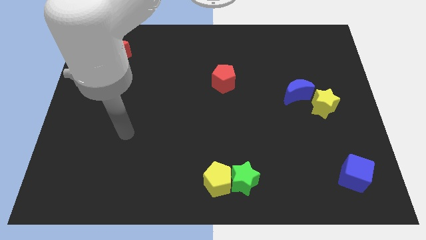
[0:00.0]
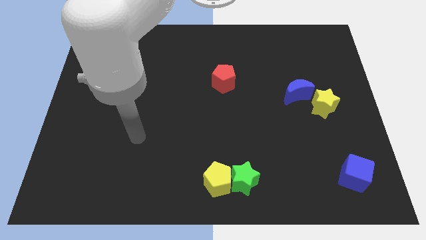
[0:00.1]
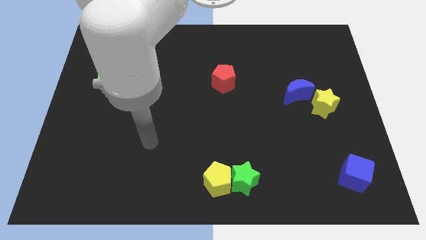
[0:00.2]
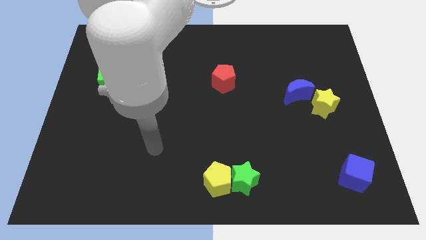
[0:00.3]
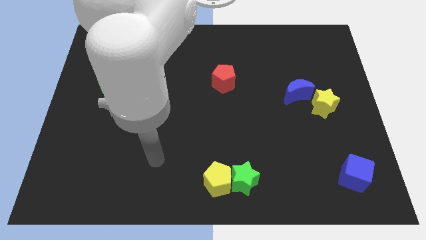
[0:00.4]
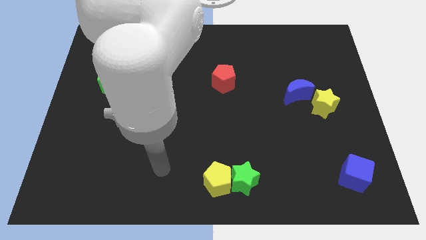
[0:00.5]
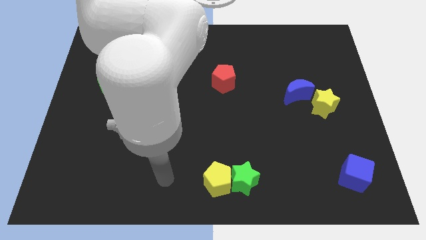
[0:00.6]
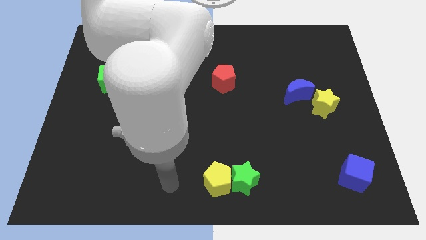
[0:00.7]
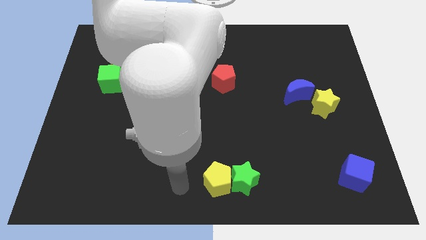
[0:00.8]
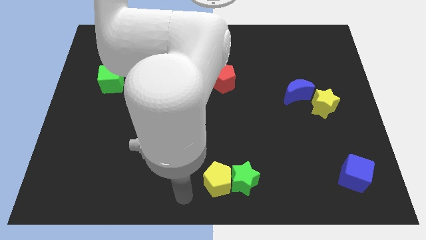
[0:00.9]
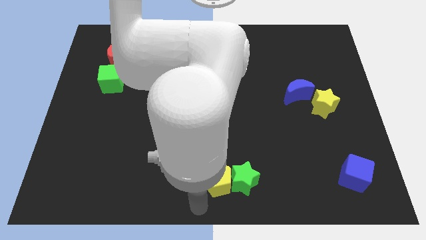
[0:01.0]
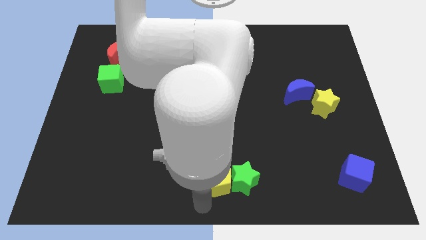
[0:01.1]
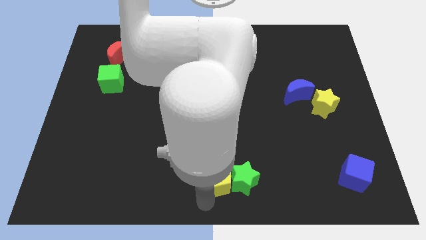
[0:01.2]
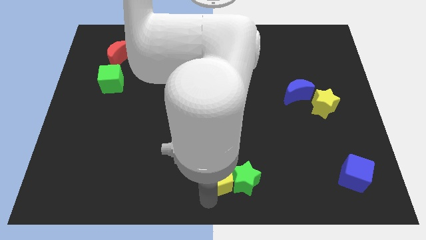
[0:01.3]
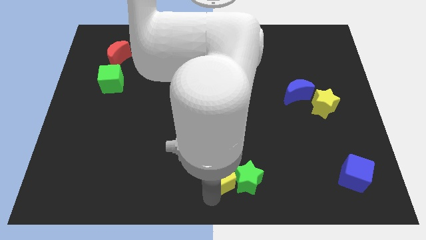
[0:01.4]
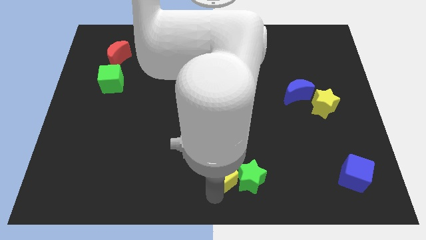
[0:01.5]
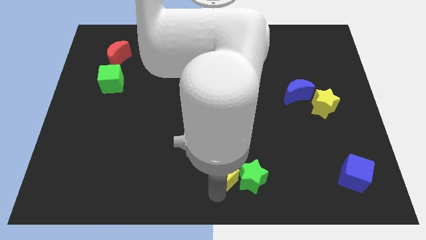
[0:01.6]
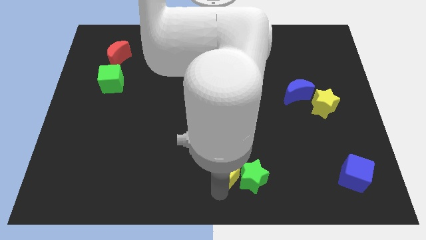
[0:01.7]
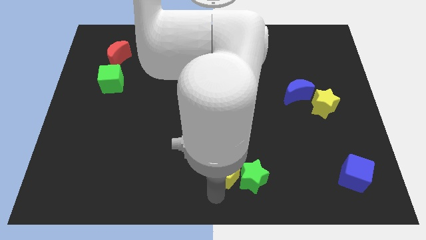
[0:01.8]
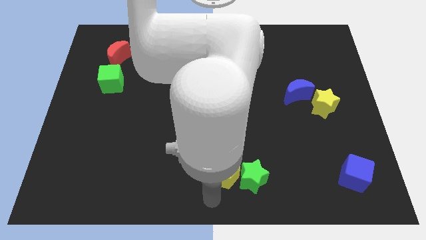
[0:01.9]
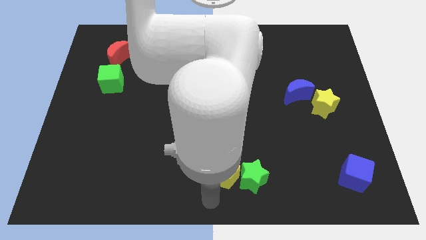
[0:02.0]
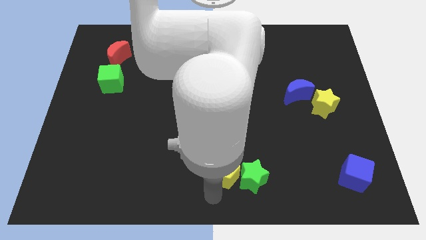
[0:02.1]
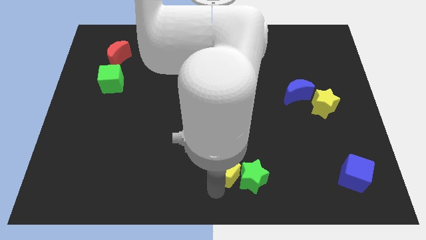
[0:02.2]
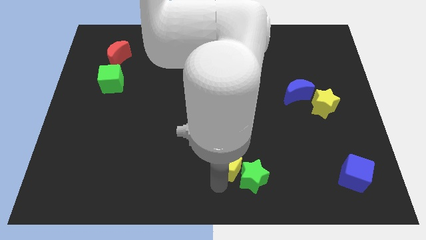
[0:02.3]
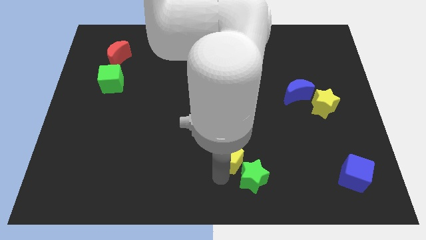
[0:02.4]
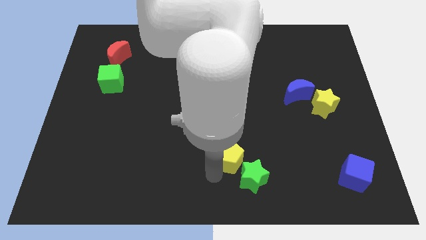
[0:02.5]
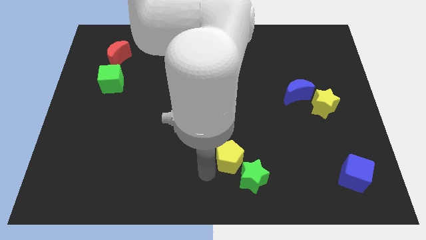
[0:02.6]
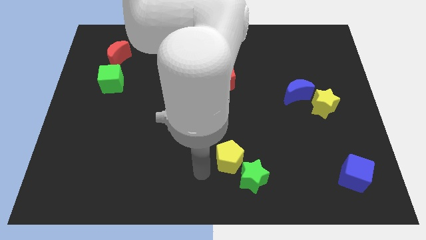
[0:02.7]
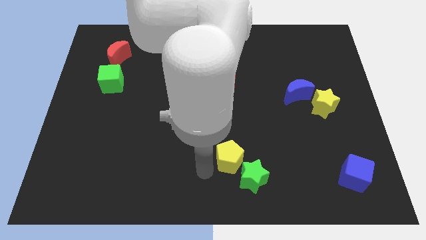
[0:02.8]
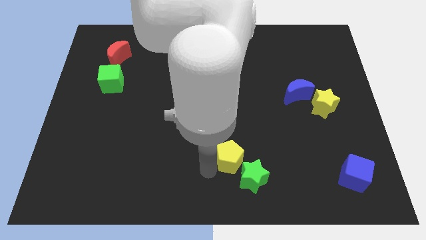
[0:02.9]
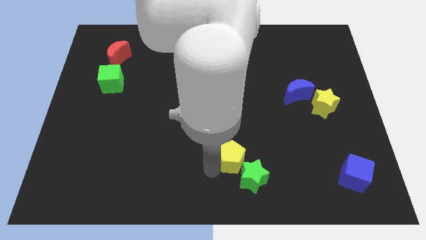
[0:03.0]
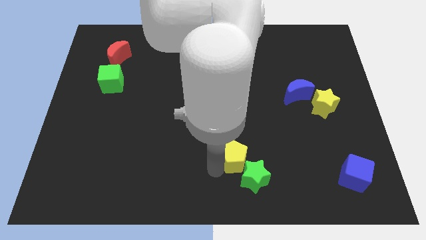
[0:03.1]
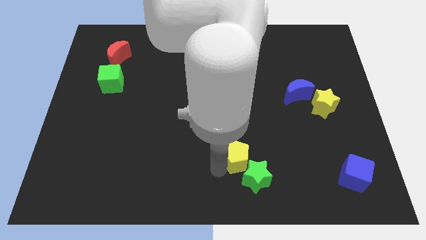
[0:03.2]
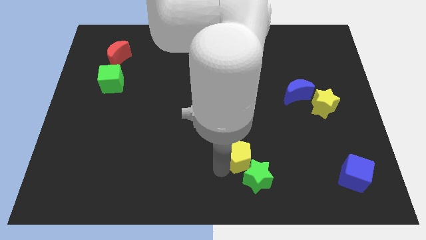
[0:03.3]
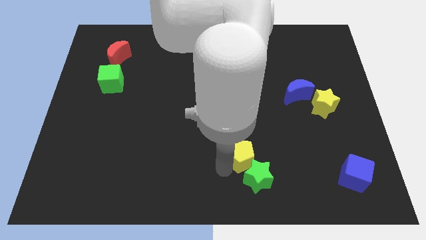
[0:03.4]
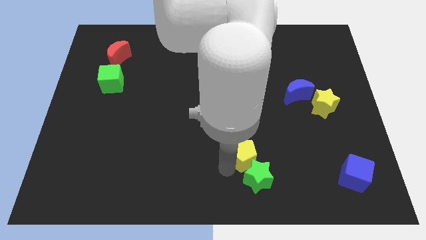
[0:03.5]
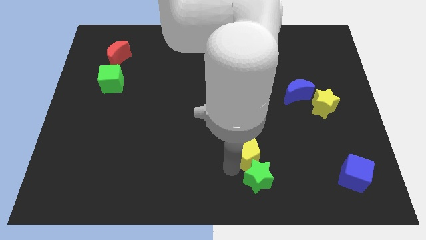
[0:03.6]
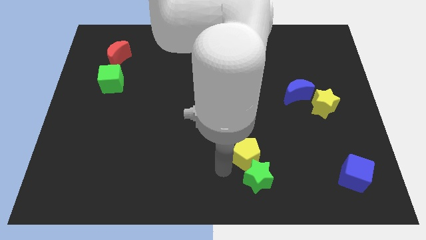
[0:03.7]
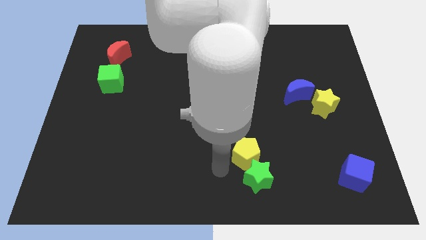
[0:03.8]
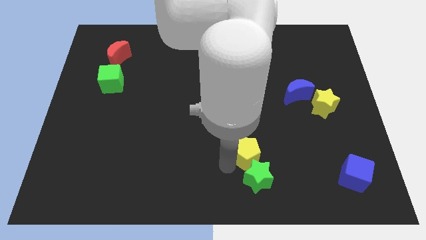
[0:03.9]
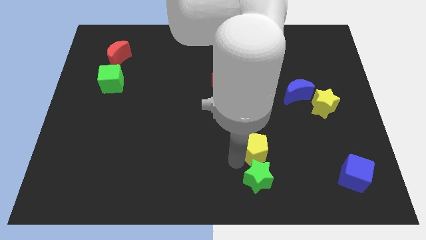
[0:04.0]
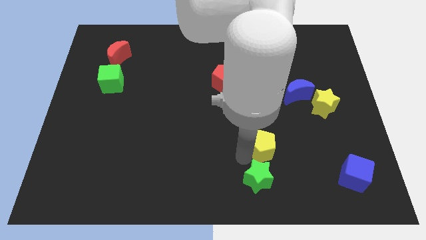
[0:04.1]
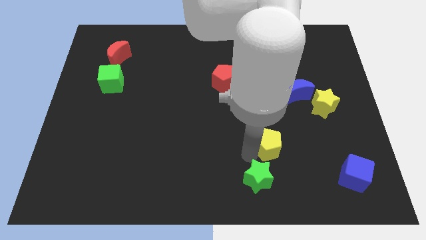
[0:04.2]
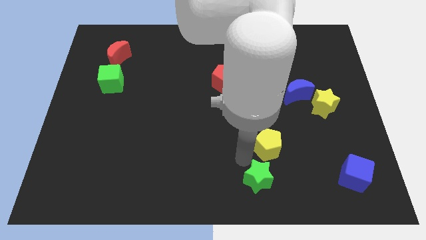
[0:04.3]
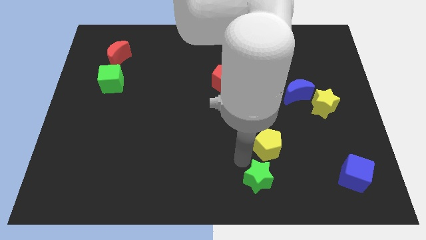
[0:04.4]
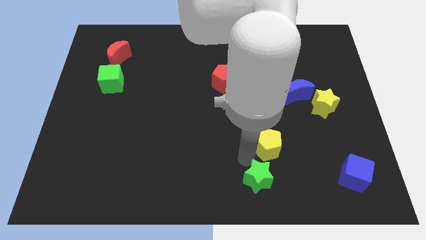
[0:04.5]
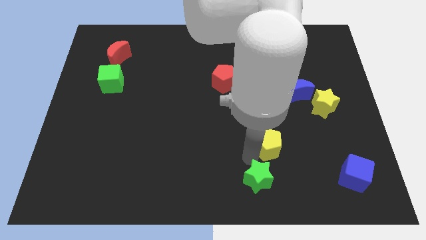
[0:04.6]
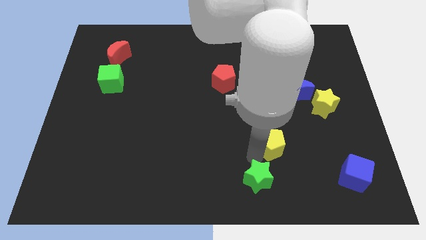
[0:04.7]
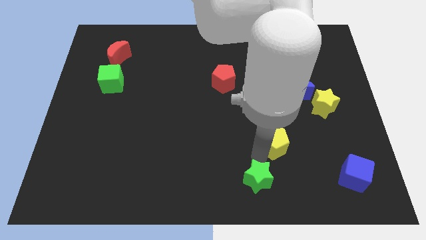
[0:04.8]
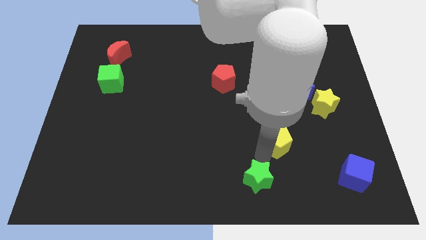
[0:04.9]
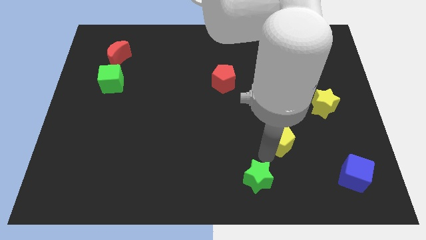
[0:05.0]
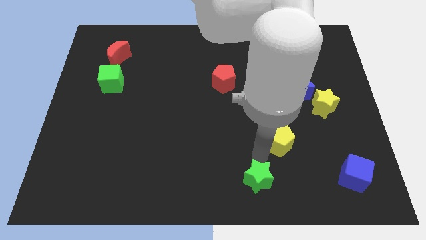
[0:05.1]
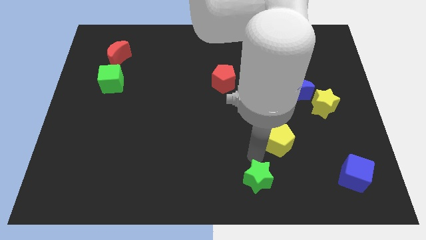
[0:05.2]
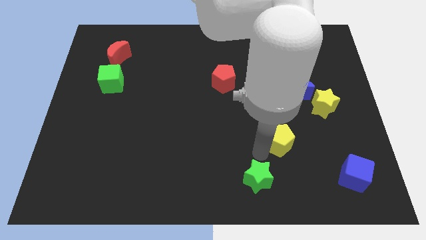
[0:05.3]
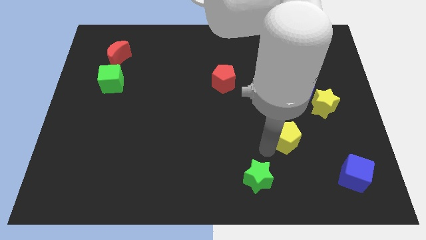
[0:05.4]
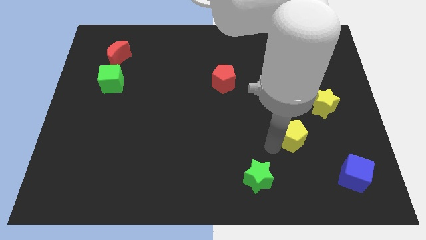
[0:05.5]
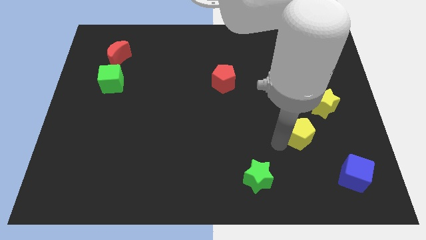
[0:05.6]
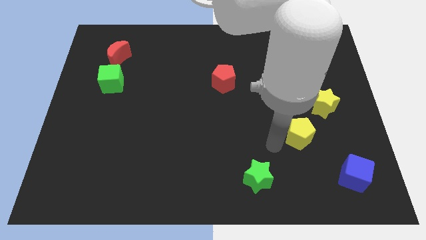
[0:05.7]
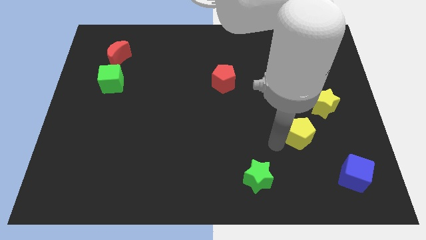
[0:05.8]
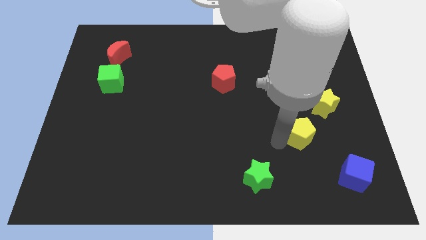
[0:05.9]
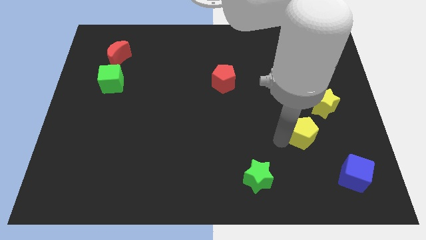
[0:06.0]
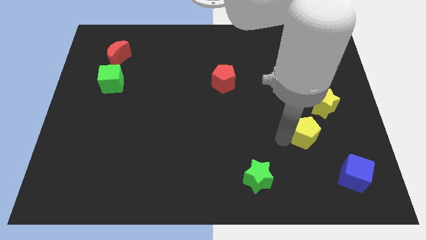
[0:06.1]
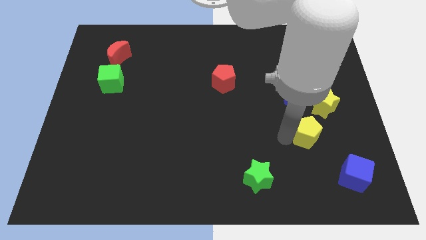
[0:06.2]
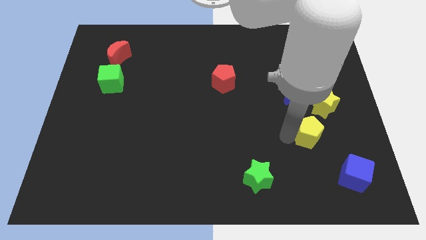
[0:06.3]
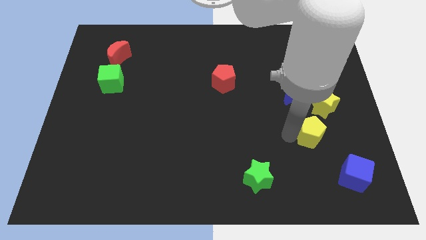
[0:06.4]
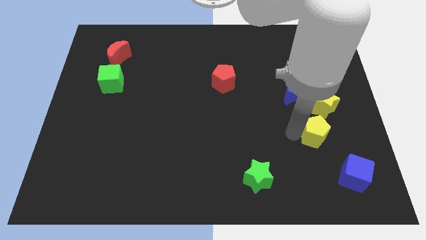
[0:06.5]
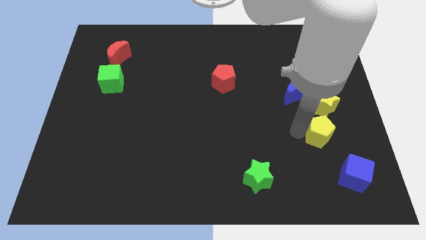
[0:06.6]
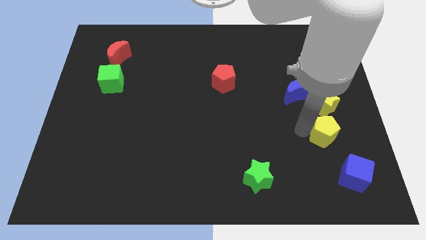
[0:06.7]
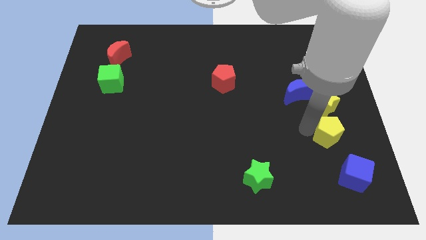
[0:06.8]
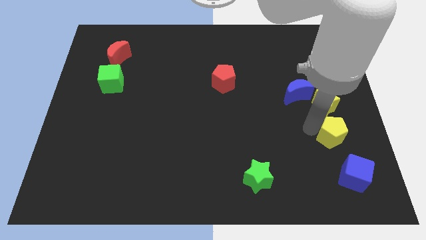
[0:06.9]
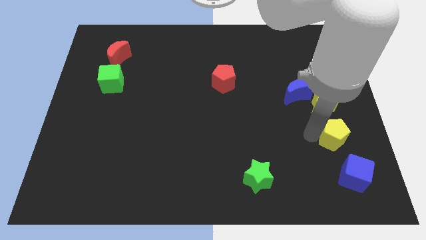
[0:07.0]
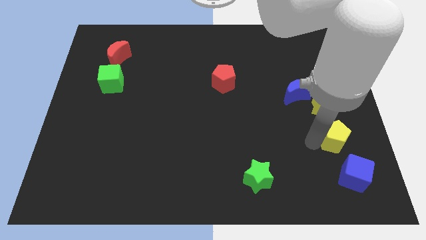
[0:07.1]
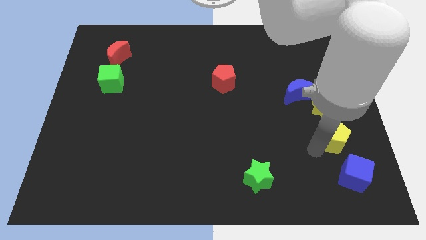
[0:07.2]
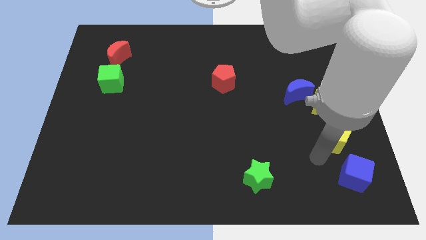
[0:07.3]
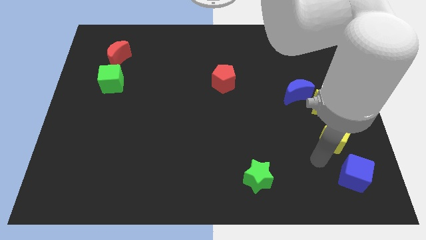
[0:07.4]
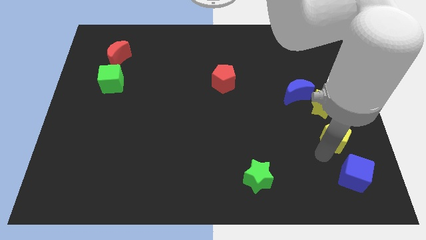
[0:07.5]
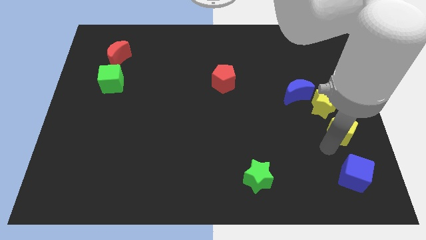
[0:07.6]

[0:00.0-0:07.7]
push the yellow pentagon to the center right
